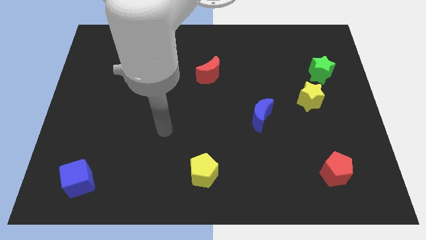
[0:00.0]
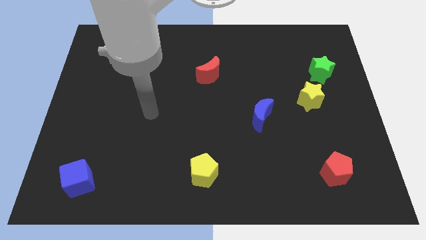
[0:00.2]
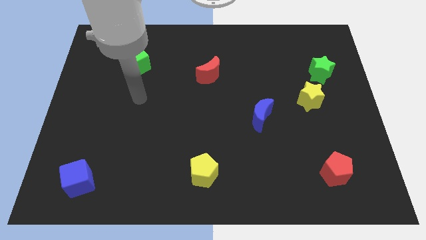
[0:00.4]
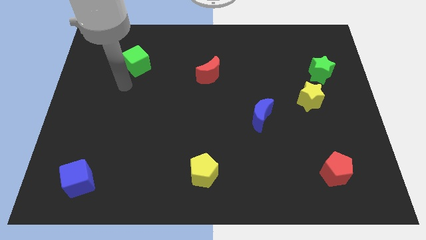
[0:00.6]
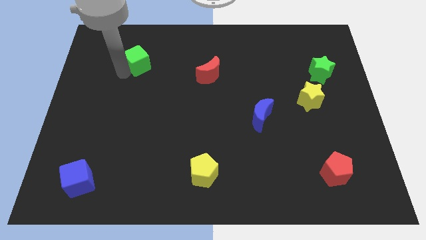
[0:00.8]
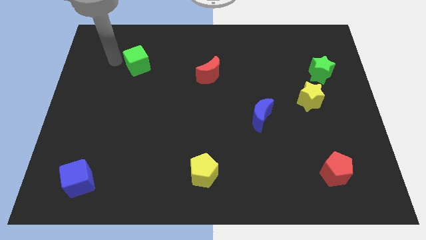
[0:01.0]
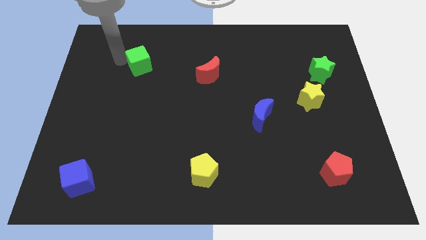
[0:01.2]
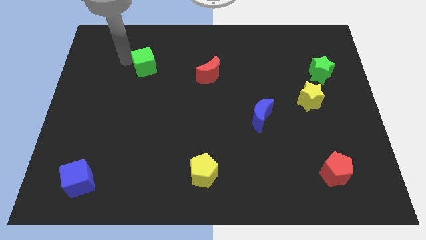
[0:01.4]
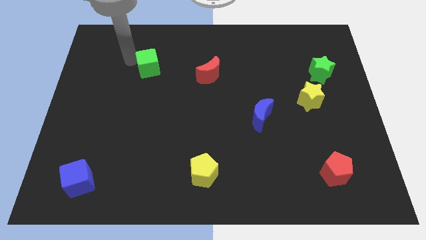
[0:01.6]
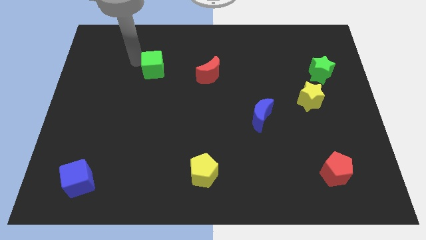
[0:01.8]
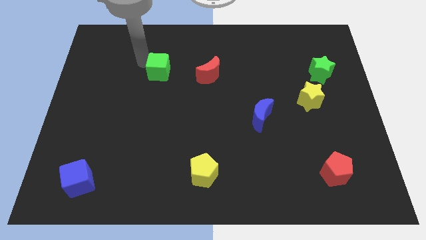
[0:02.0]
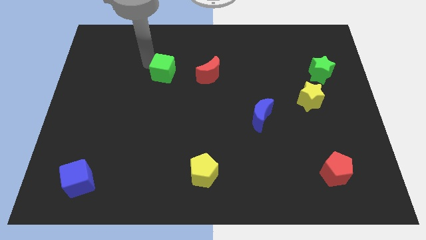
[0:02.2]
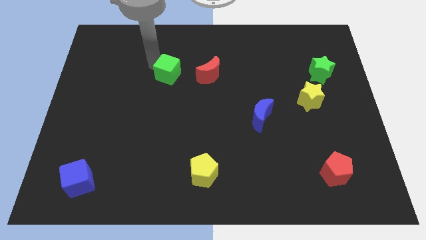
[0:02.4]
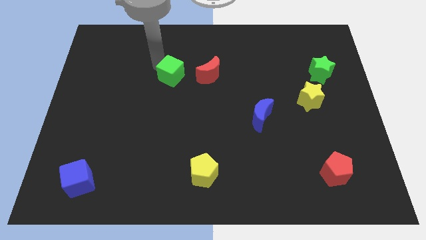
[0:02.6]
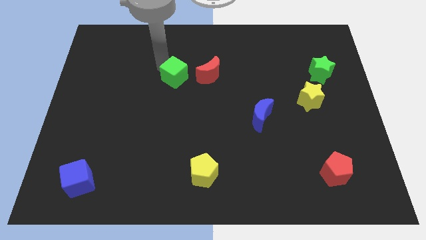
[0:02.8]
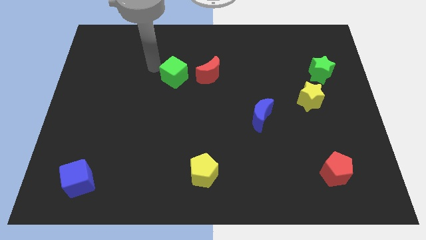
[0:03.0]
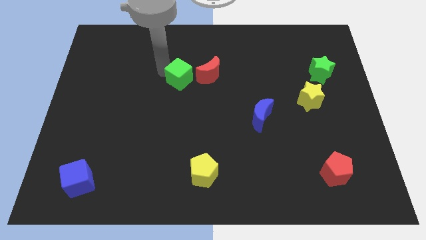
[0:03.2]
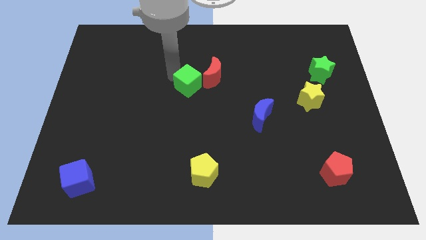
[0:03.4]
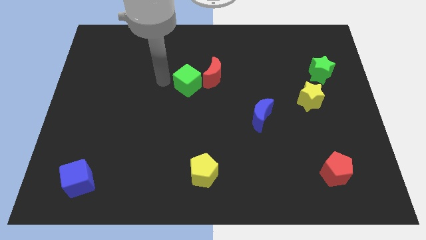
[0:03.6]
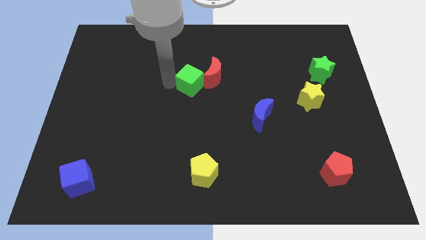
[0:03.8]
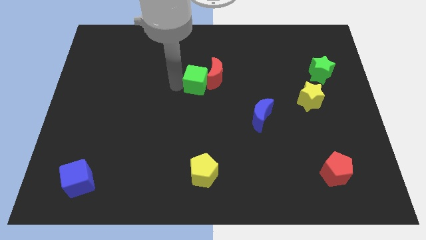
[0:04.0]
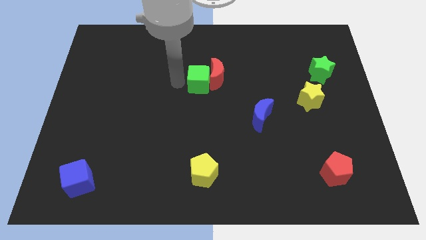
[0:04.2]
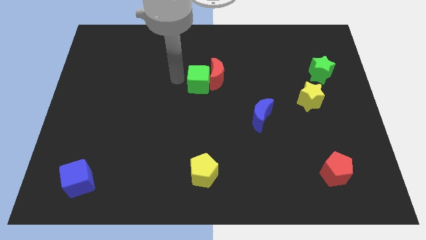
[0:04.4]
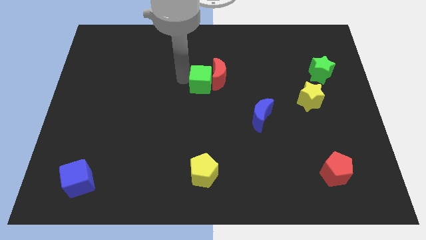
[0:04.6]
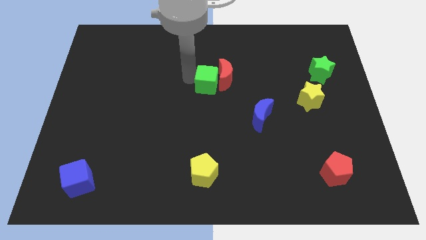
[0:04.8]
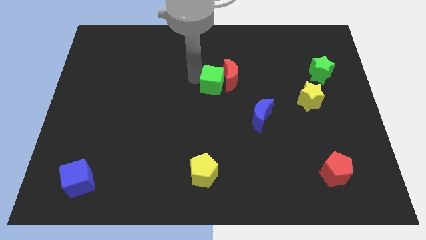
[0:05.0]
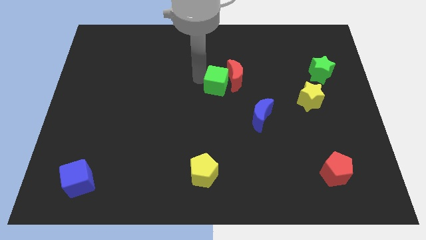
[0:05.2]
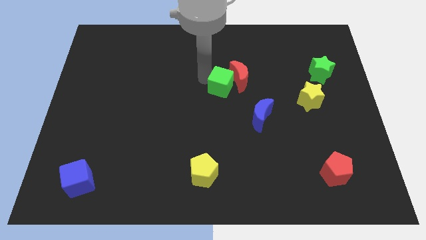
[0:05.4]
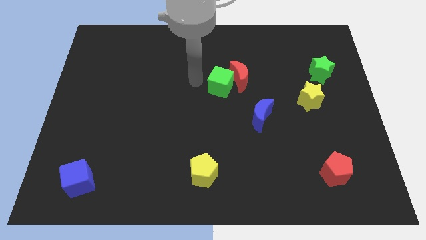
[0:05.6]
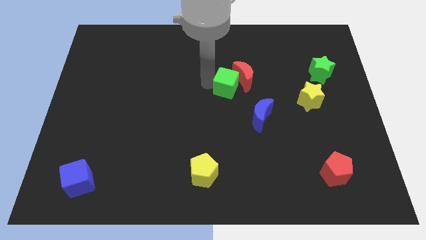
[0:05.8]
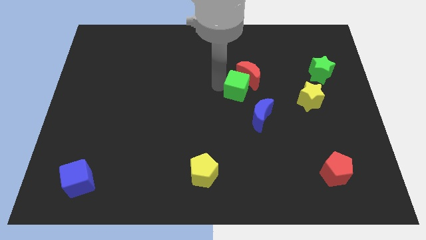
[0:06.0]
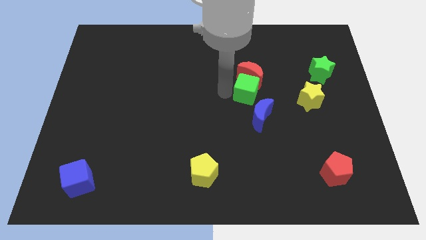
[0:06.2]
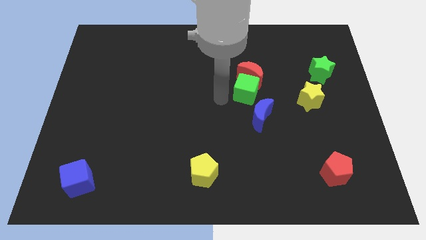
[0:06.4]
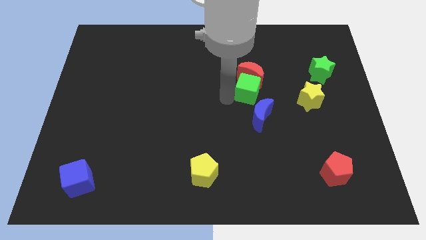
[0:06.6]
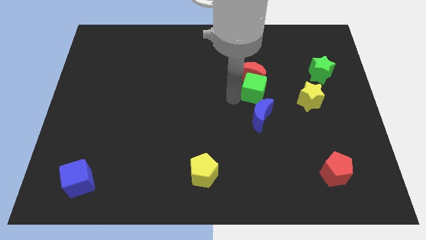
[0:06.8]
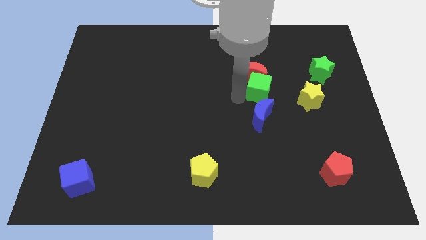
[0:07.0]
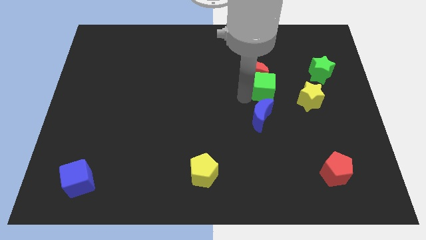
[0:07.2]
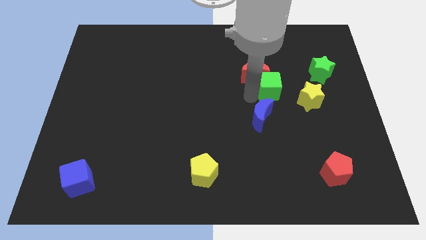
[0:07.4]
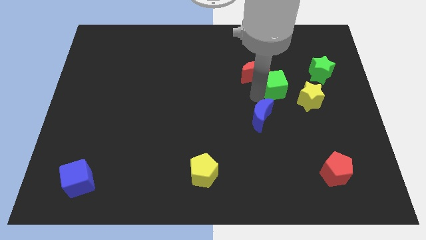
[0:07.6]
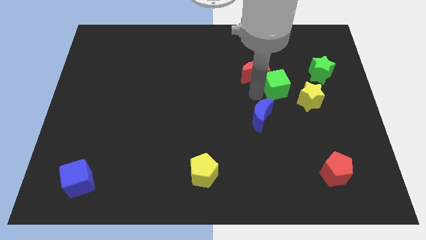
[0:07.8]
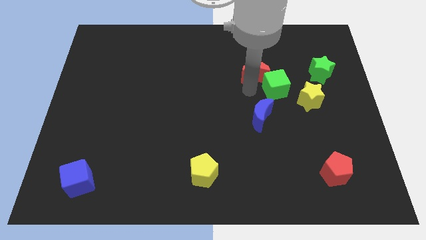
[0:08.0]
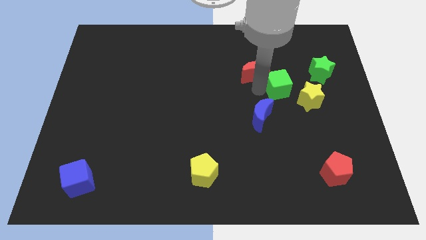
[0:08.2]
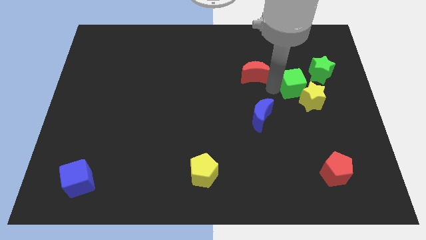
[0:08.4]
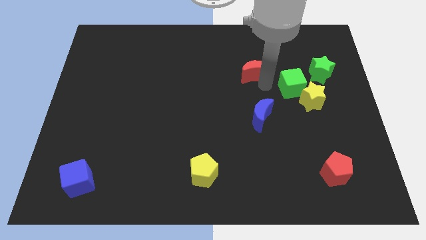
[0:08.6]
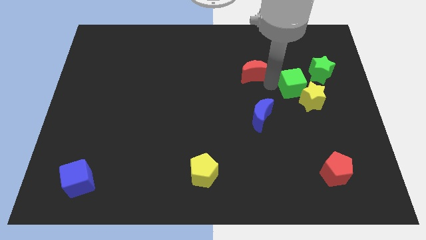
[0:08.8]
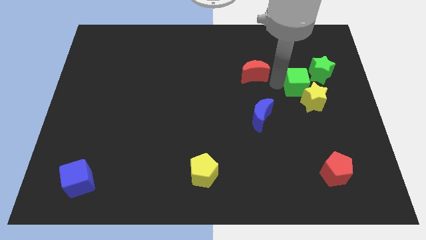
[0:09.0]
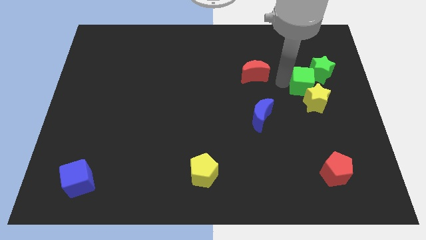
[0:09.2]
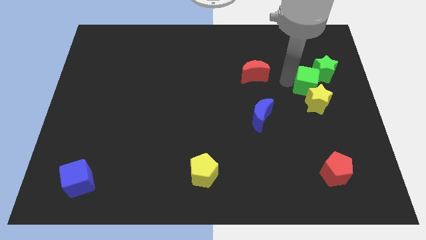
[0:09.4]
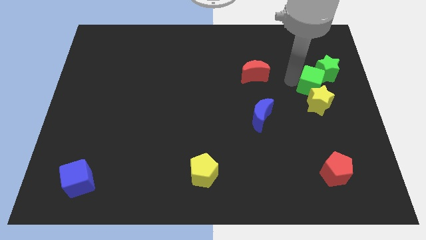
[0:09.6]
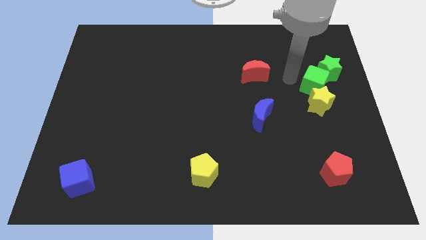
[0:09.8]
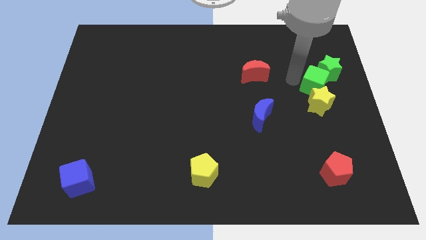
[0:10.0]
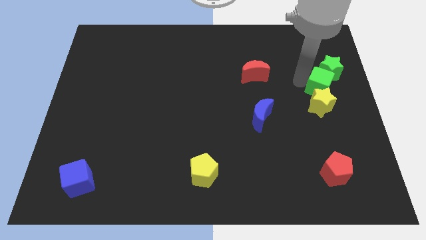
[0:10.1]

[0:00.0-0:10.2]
push the green cube to the right side
